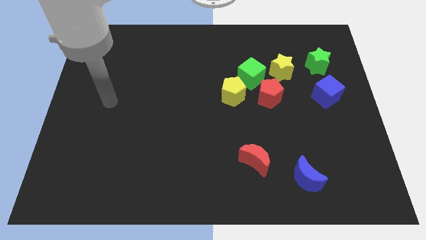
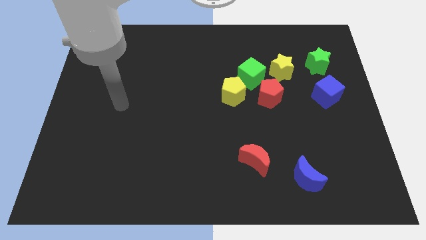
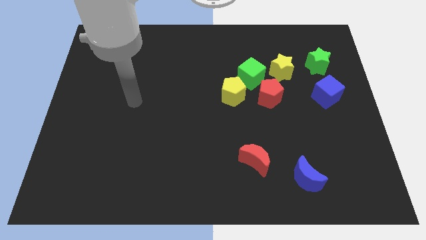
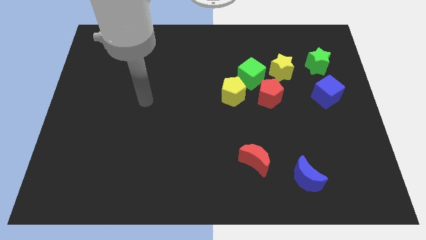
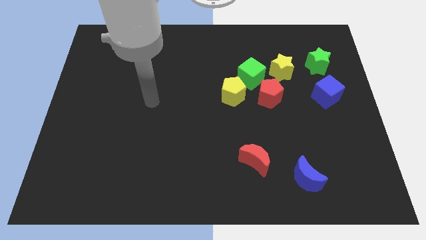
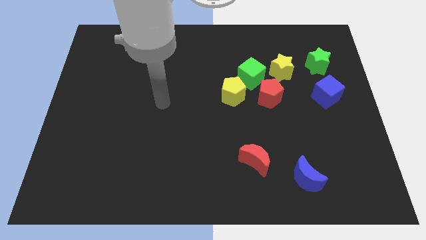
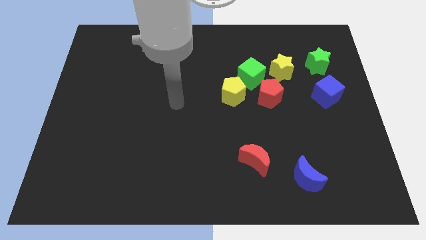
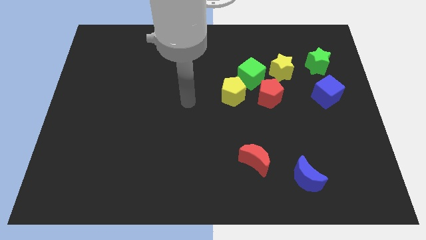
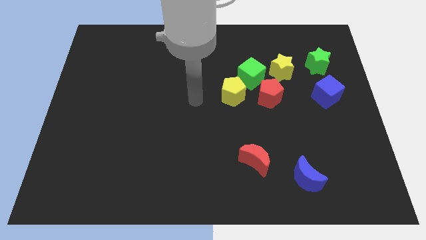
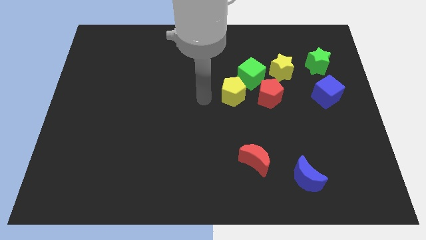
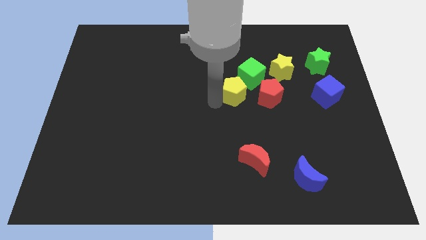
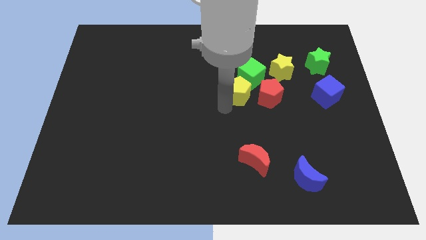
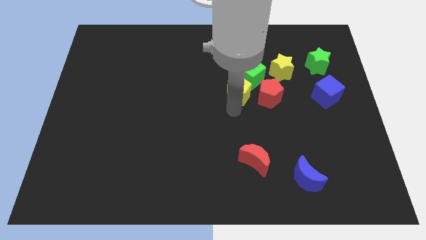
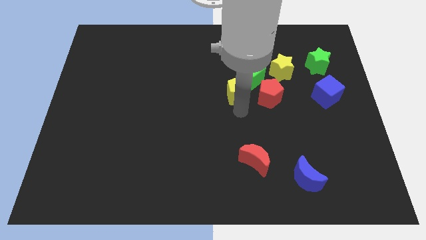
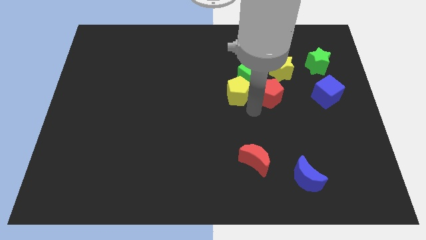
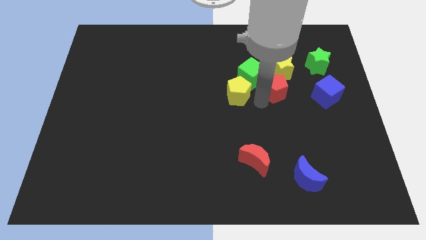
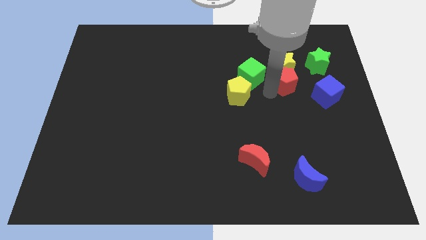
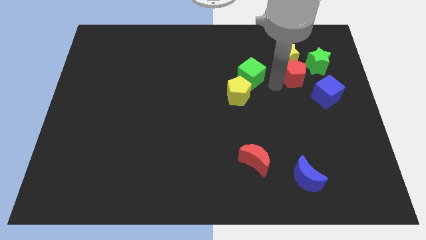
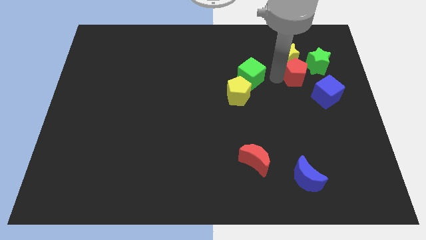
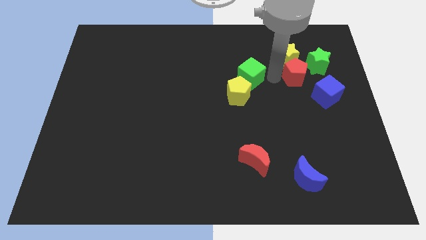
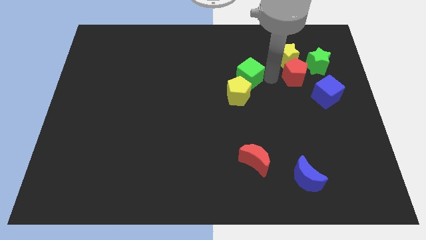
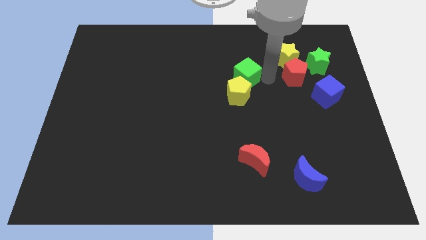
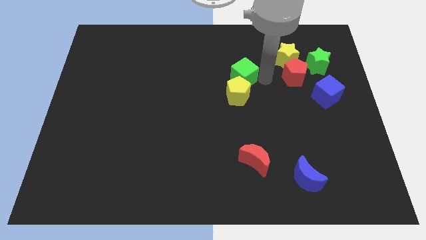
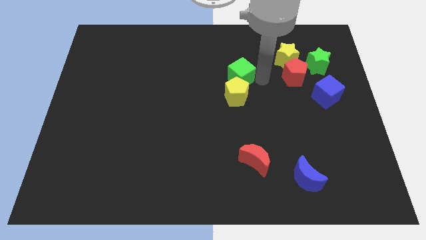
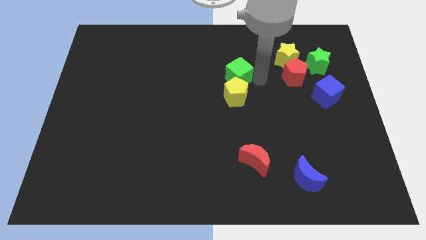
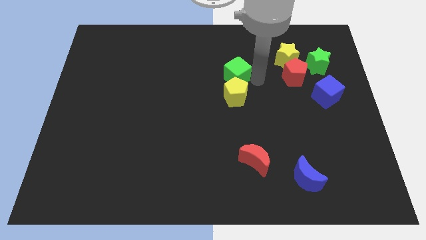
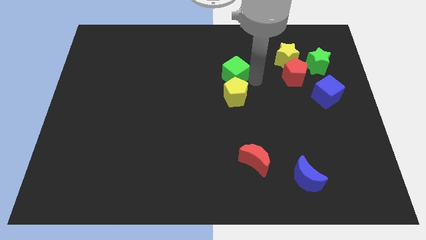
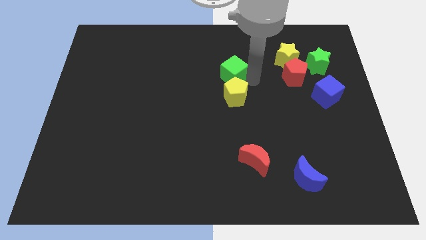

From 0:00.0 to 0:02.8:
separate the green cube from the clump

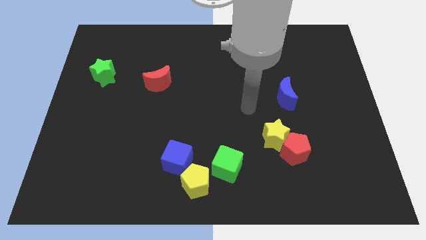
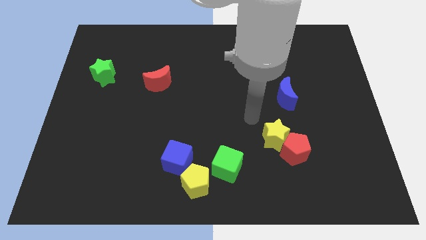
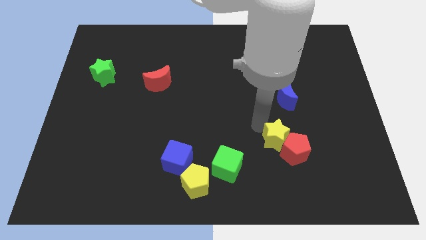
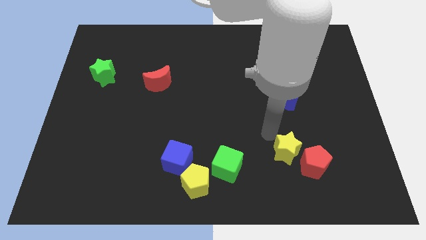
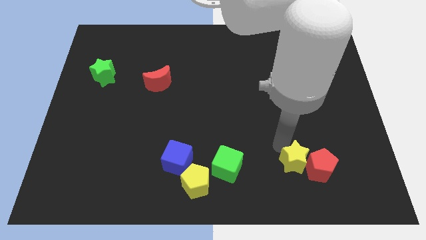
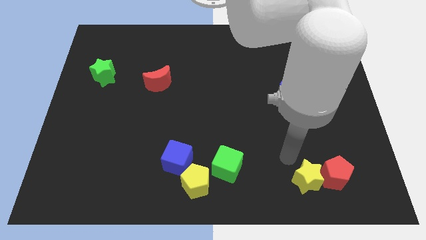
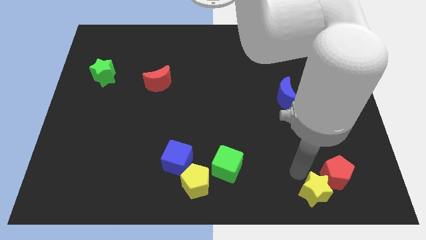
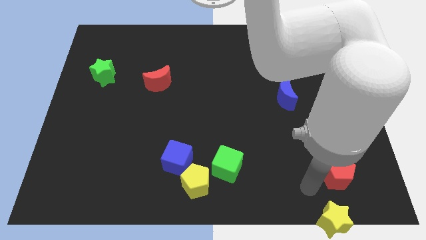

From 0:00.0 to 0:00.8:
pull the red pentagon apart from the yellow star

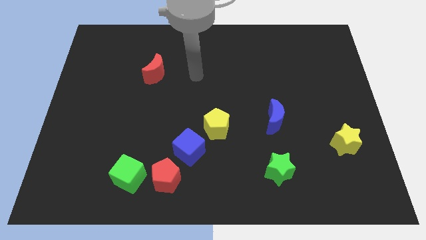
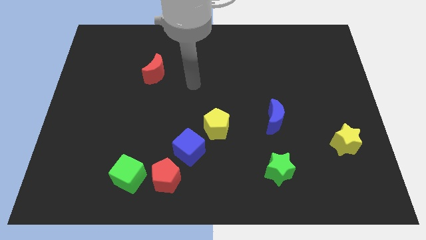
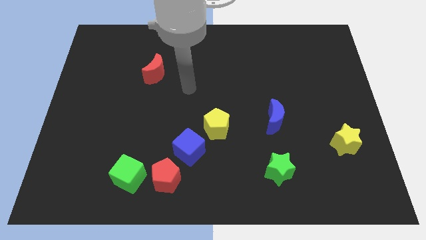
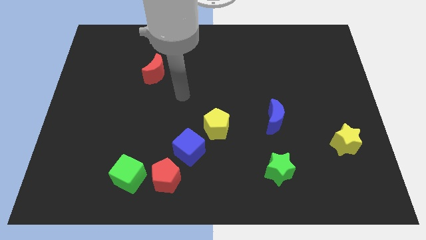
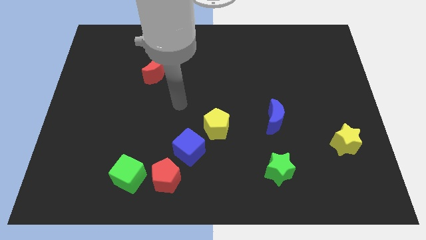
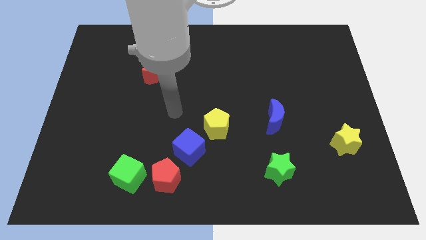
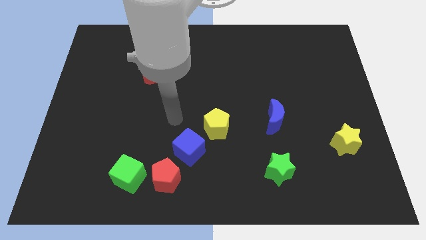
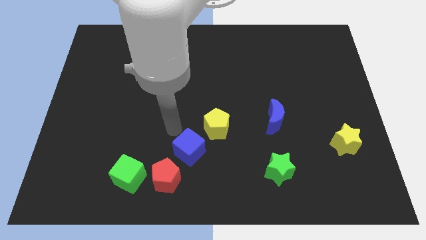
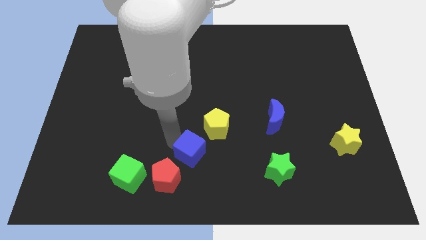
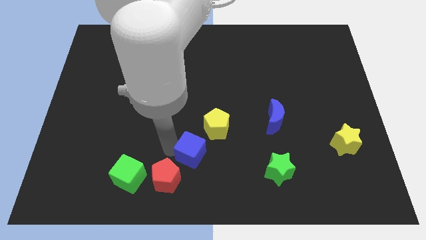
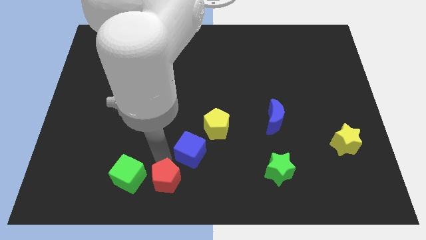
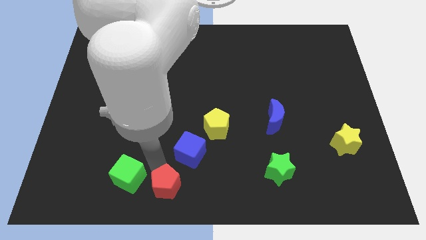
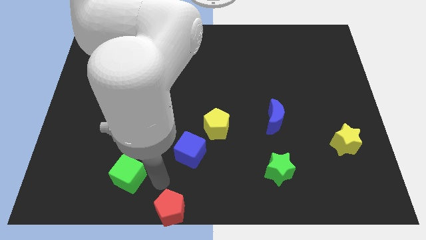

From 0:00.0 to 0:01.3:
move the green cube away from the red pentagon

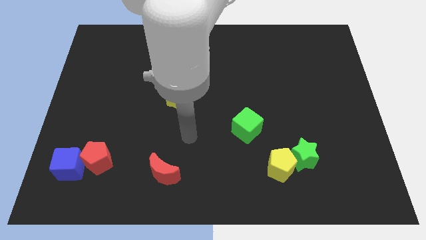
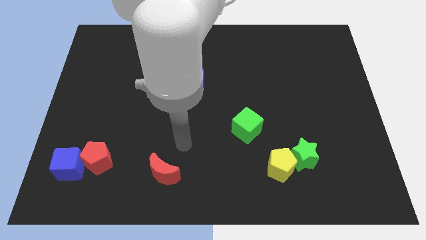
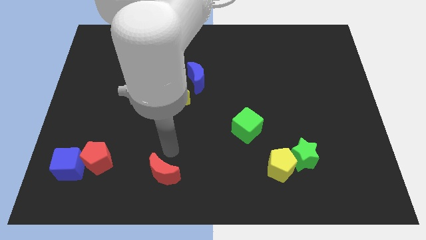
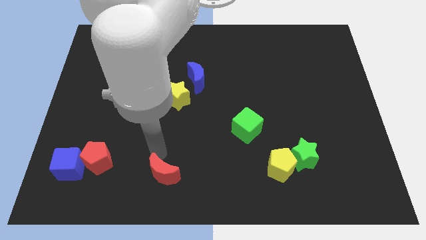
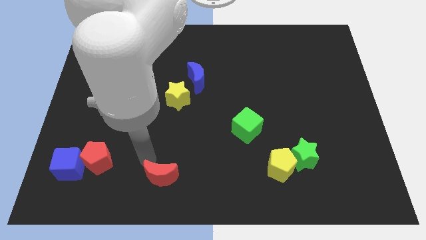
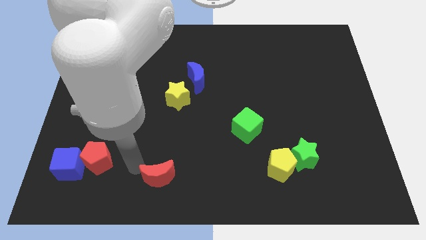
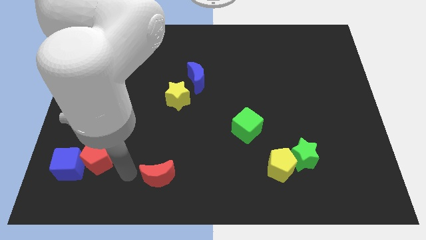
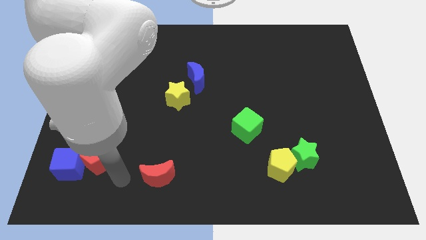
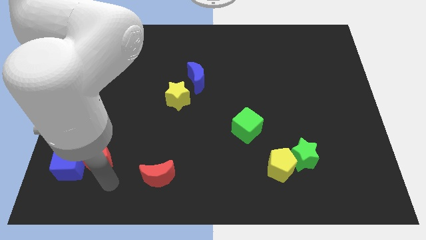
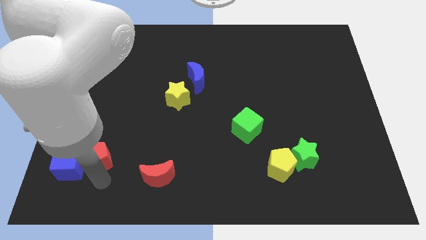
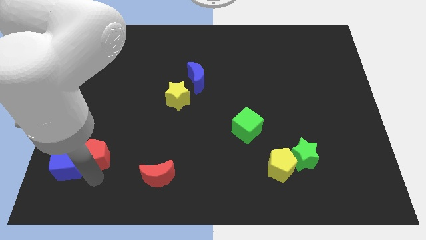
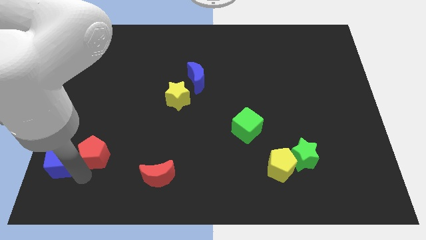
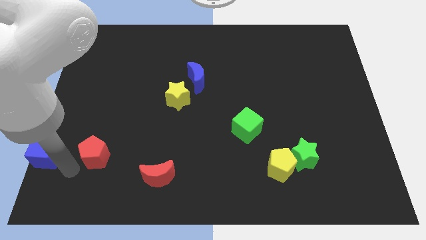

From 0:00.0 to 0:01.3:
separate the red pentagon from the blue cube

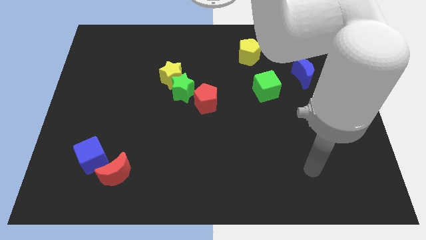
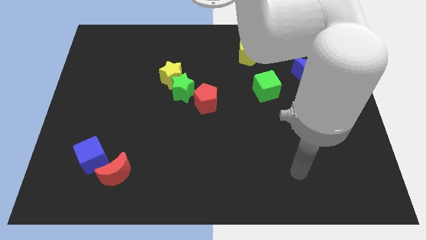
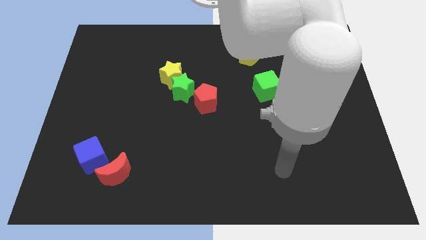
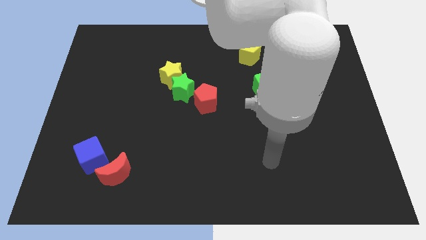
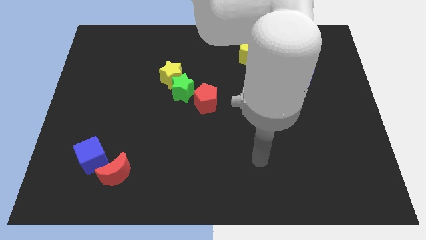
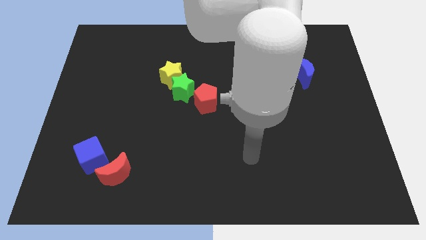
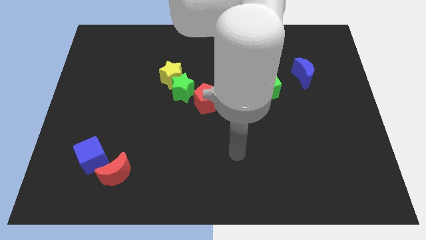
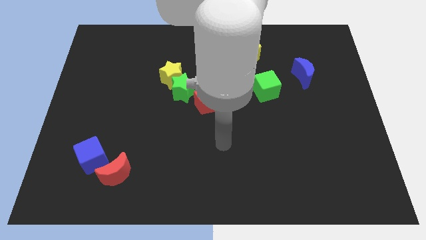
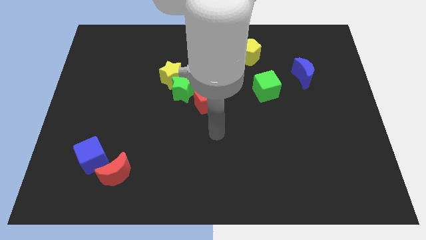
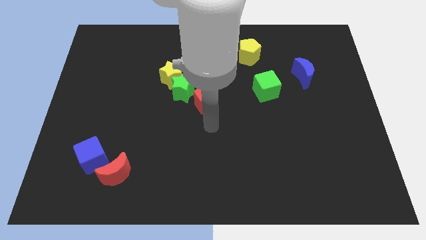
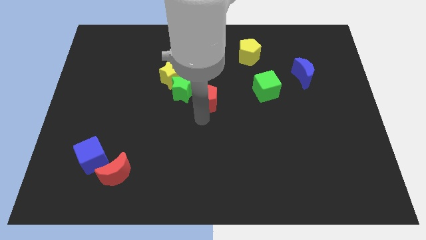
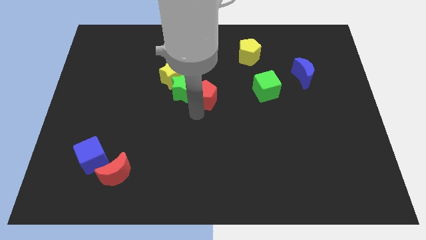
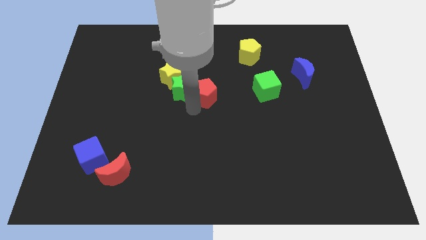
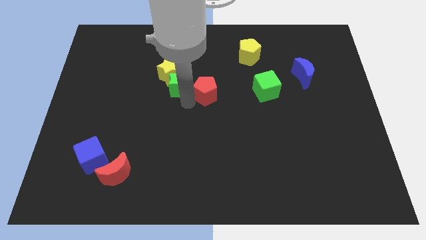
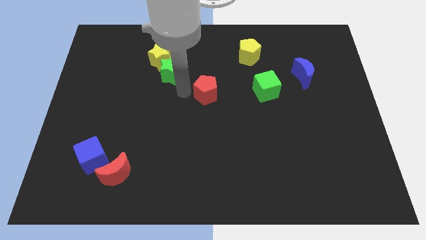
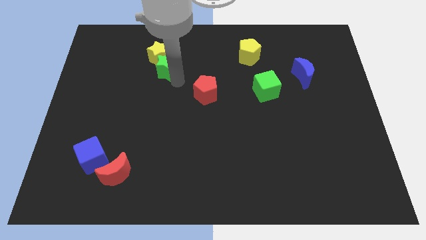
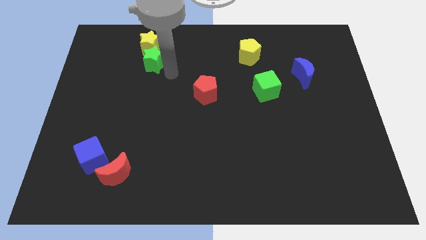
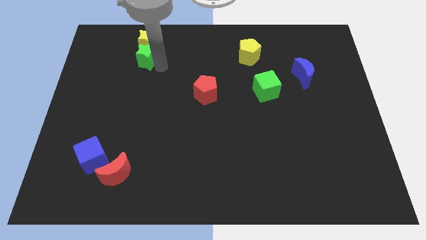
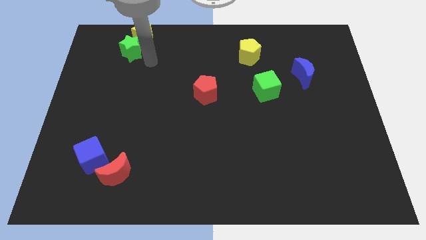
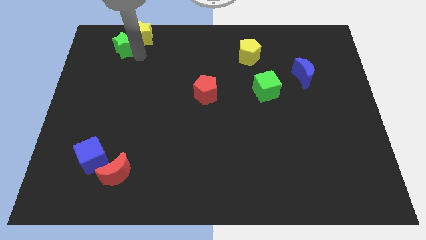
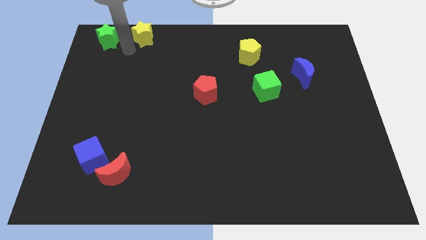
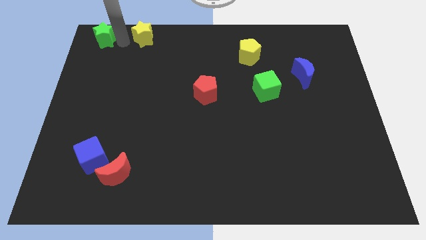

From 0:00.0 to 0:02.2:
pull the yellow star apart from the green star

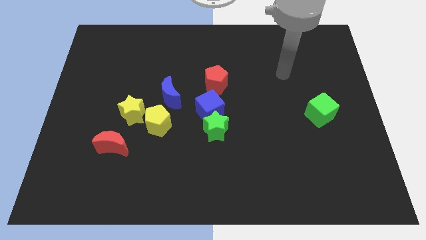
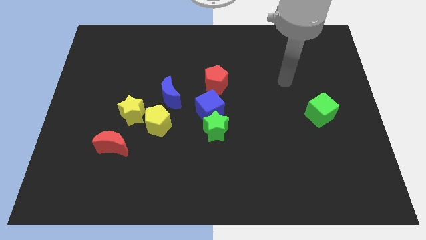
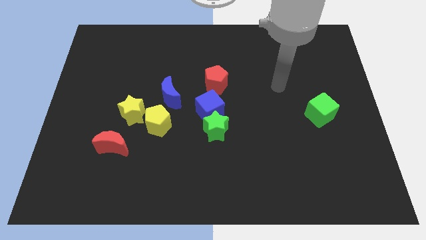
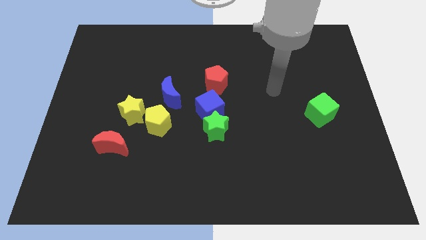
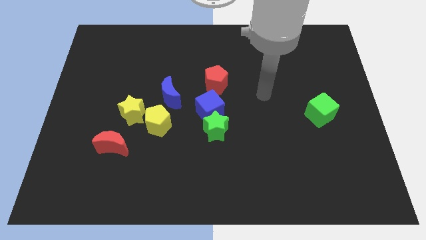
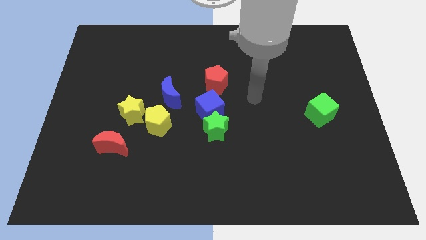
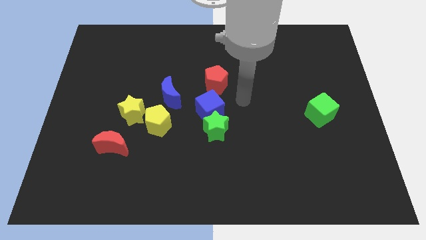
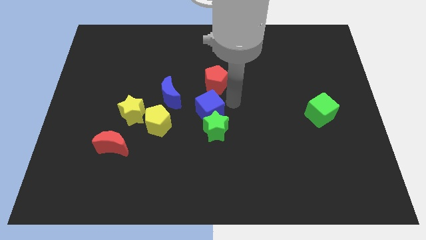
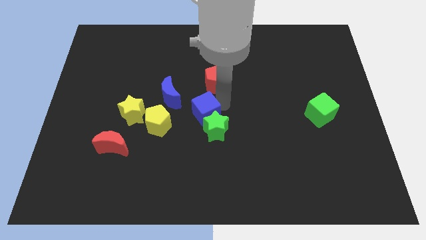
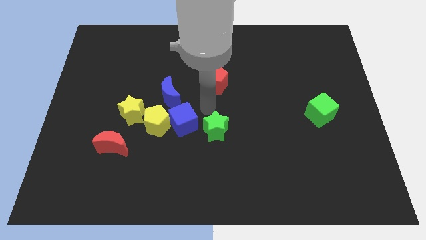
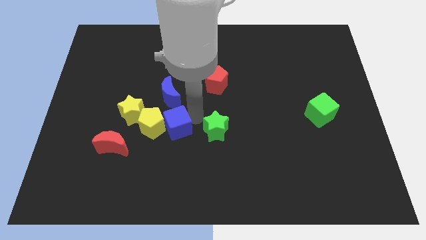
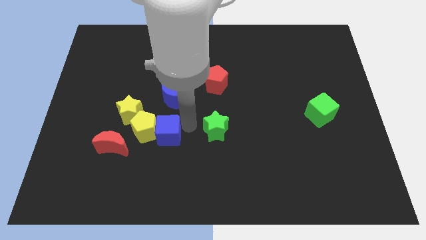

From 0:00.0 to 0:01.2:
pull the green star apart from the blue cube
